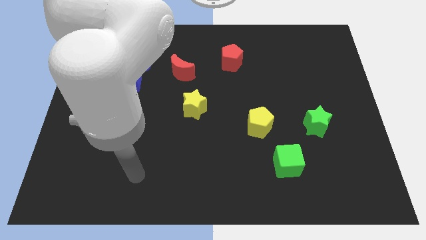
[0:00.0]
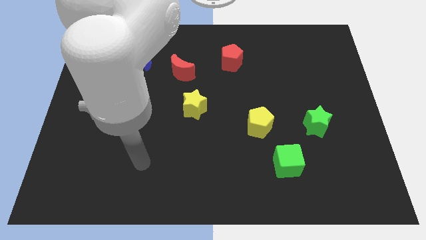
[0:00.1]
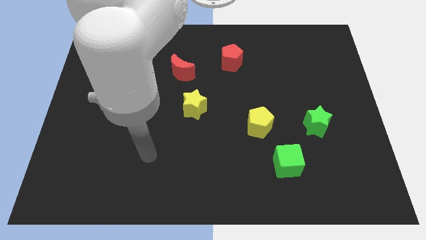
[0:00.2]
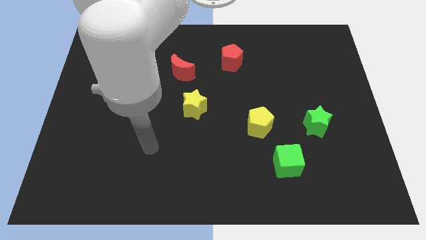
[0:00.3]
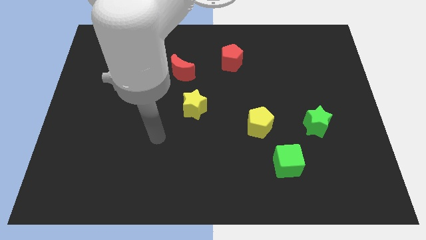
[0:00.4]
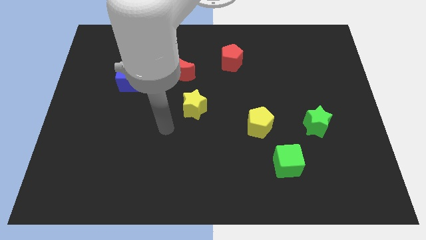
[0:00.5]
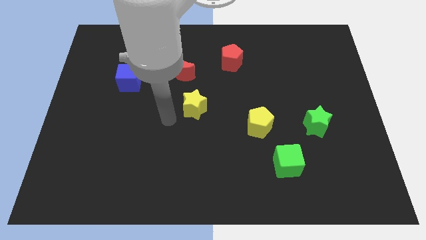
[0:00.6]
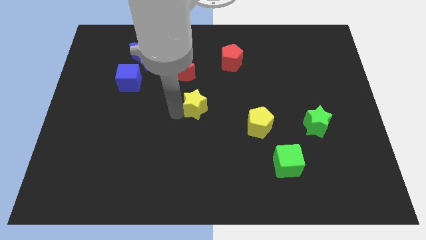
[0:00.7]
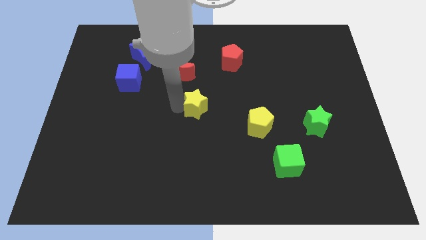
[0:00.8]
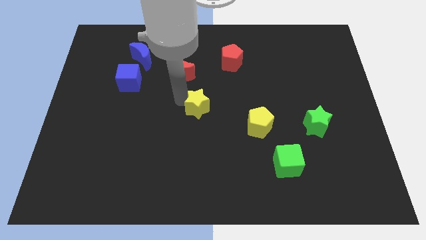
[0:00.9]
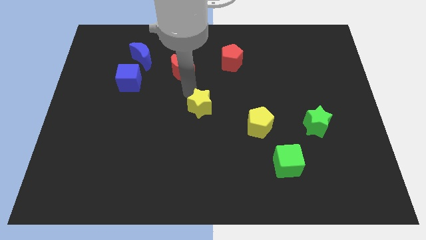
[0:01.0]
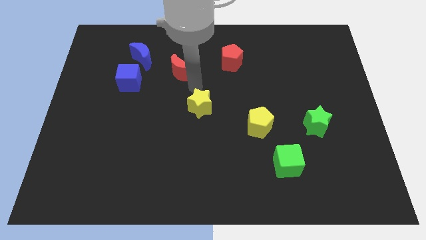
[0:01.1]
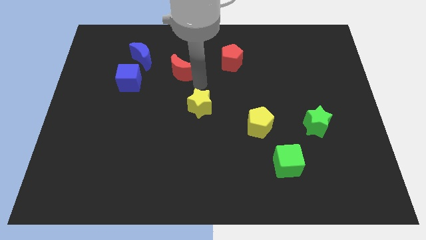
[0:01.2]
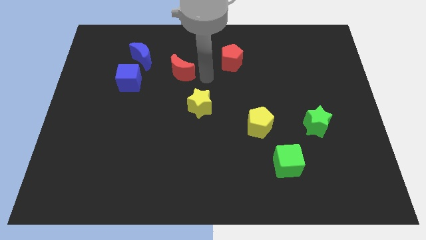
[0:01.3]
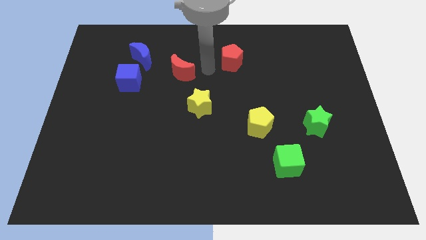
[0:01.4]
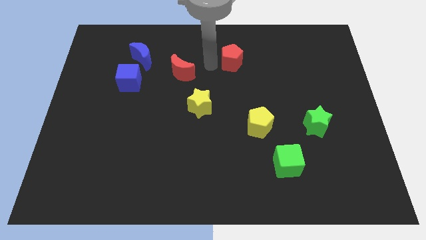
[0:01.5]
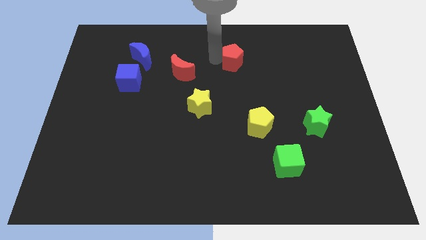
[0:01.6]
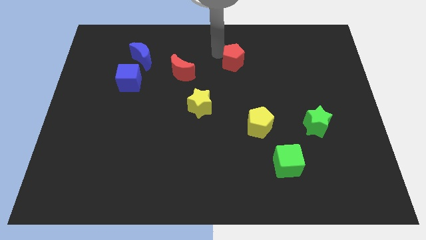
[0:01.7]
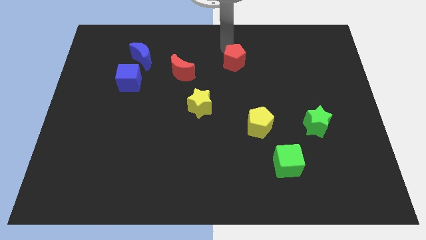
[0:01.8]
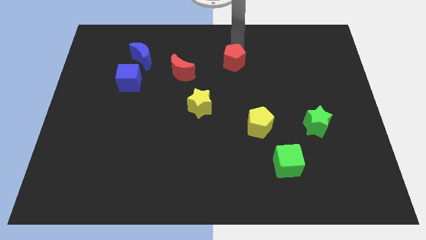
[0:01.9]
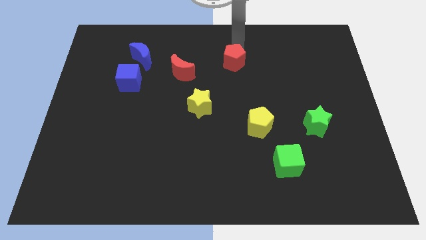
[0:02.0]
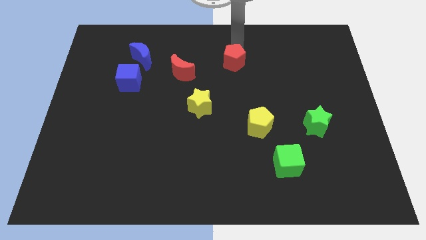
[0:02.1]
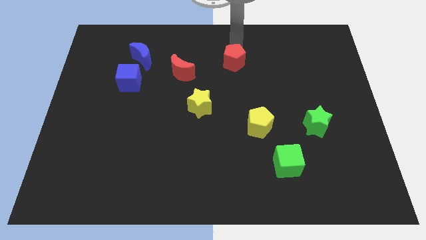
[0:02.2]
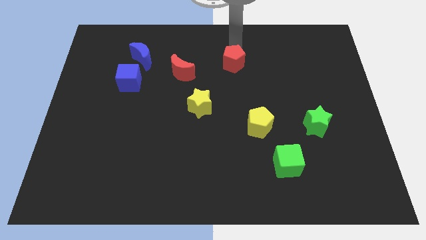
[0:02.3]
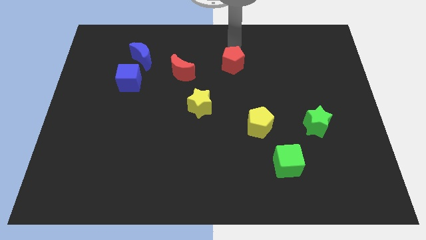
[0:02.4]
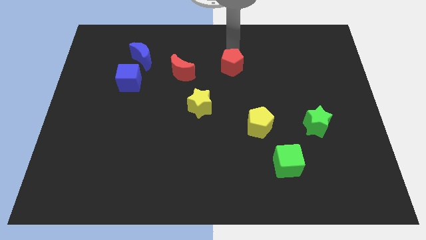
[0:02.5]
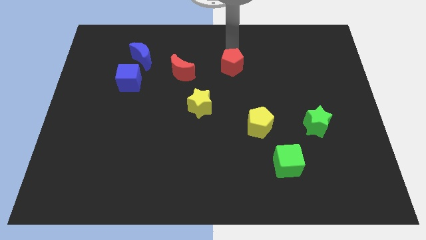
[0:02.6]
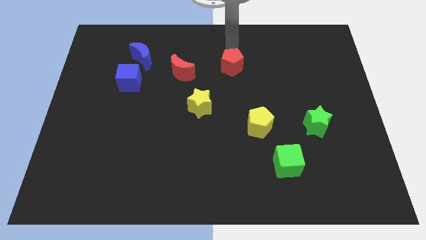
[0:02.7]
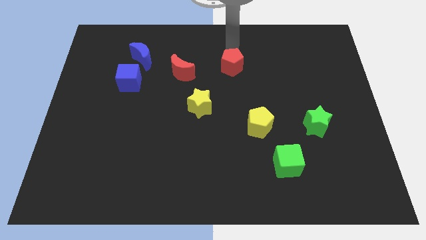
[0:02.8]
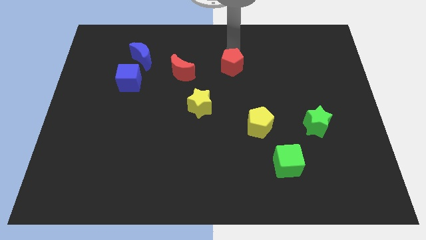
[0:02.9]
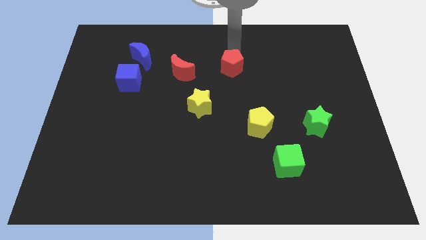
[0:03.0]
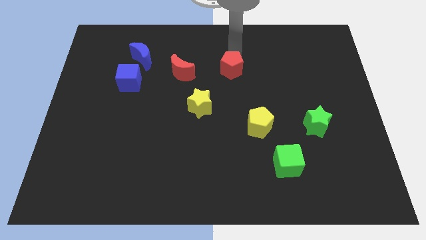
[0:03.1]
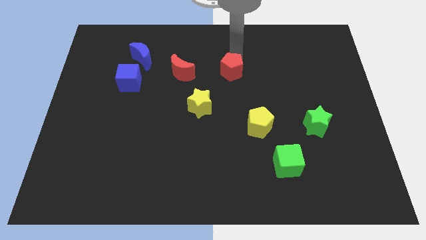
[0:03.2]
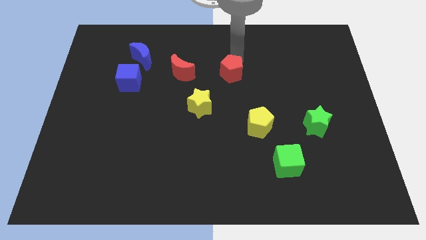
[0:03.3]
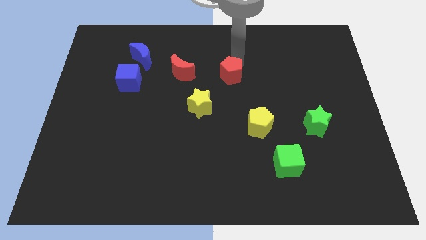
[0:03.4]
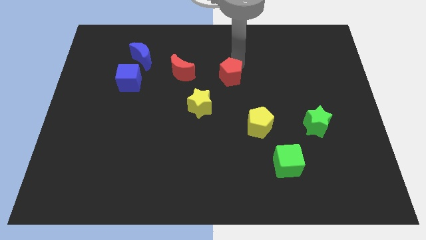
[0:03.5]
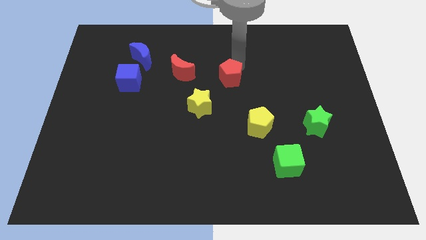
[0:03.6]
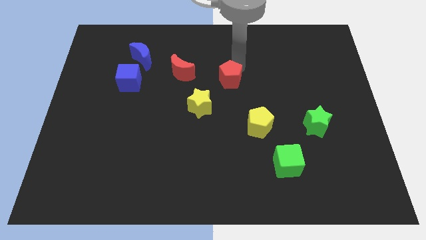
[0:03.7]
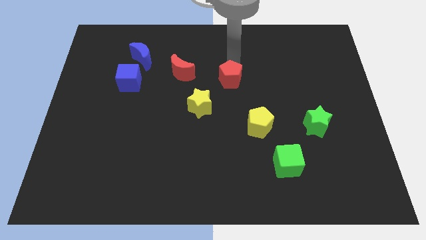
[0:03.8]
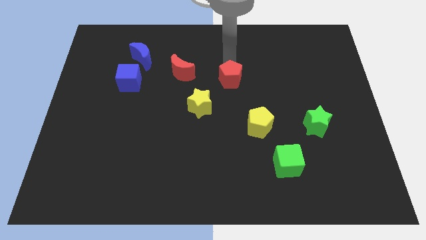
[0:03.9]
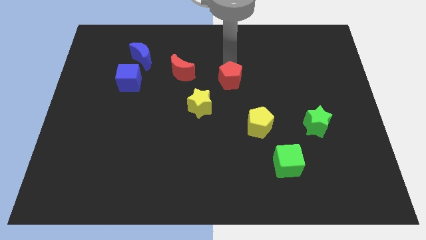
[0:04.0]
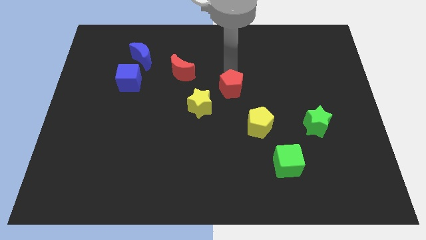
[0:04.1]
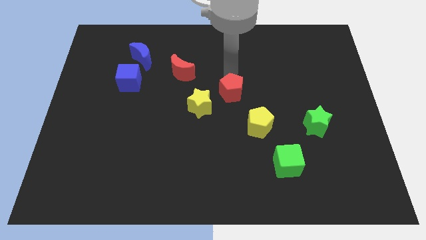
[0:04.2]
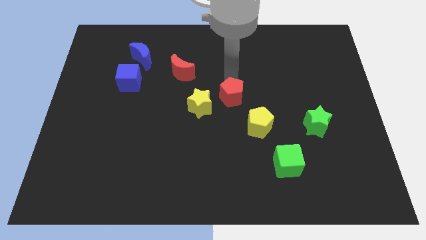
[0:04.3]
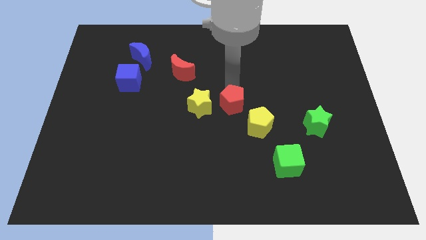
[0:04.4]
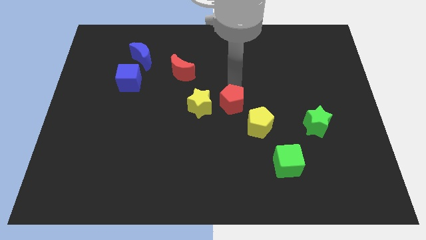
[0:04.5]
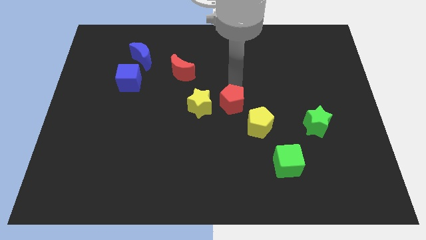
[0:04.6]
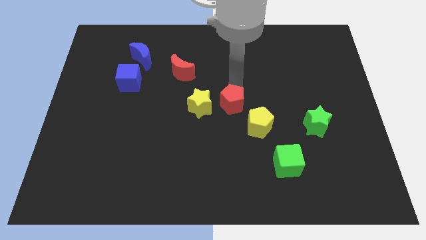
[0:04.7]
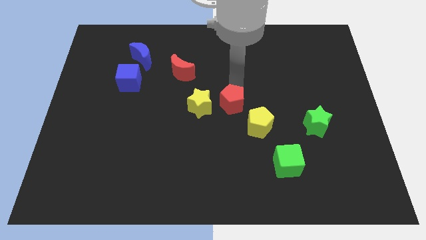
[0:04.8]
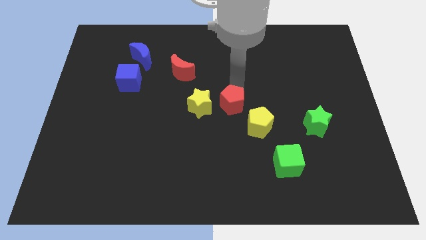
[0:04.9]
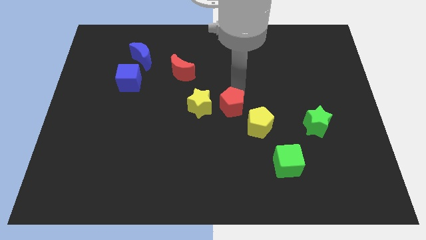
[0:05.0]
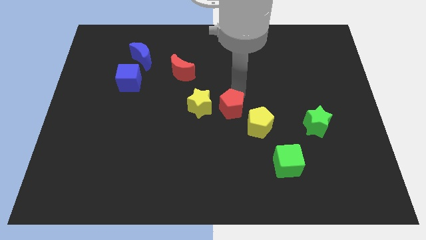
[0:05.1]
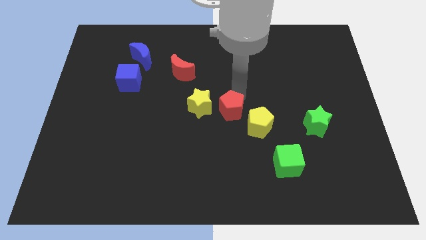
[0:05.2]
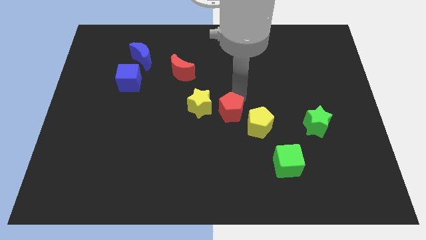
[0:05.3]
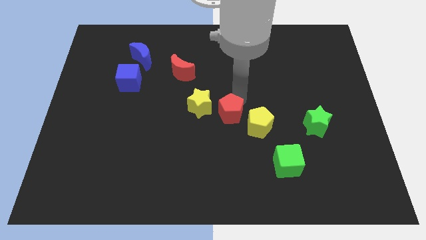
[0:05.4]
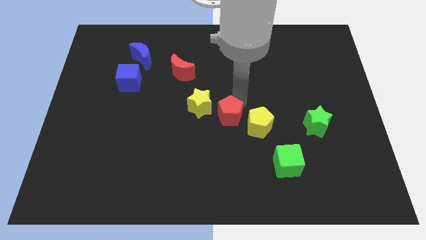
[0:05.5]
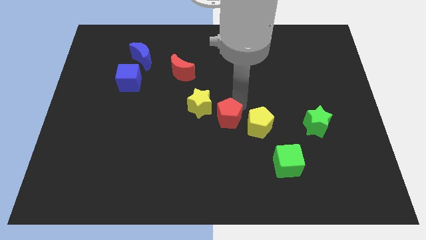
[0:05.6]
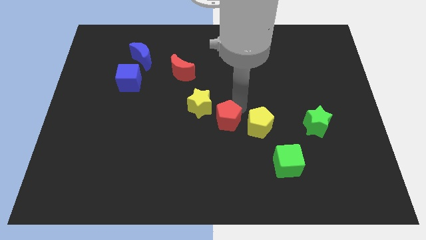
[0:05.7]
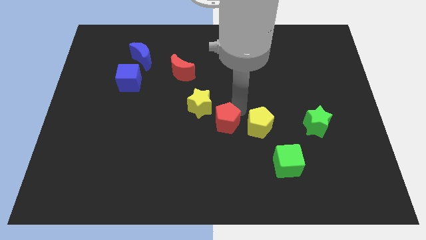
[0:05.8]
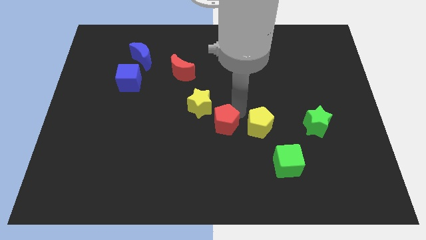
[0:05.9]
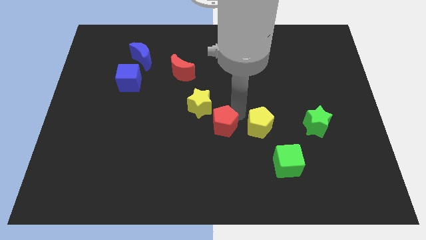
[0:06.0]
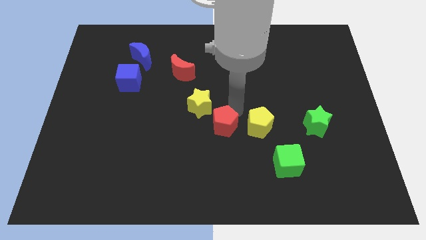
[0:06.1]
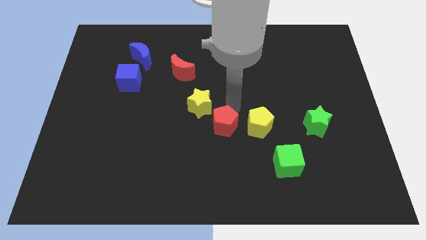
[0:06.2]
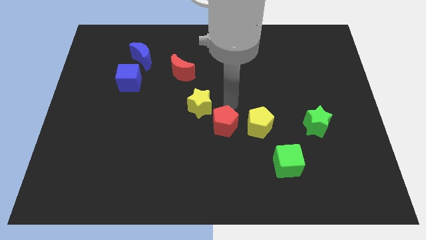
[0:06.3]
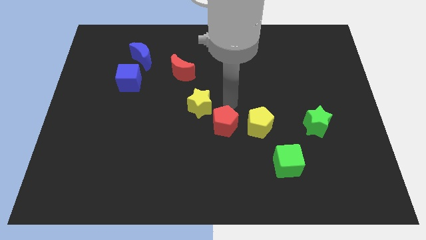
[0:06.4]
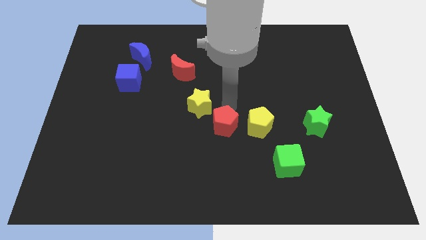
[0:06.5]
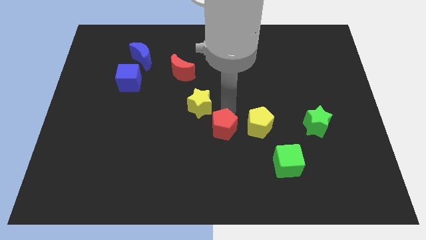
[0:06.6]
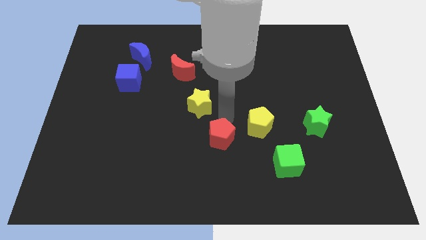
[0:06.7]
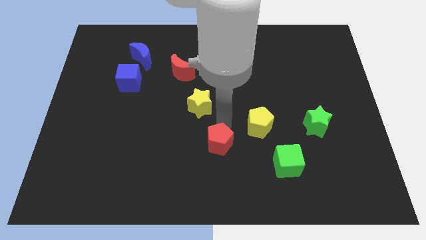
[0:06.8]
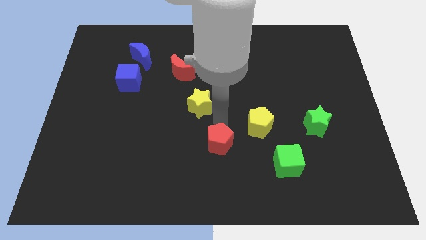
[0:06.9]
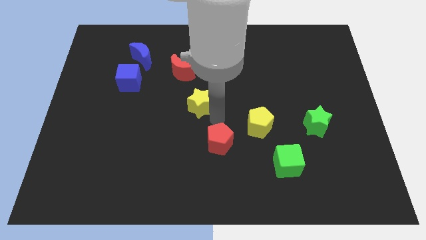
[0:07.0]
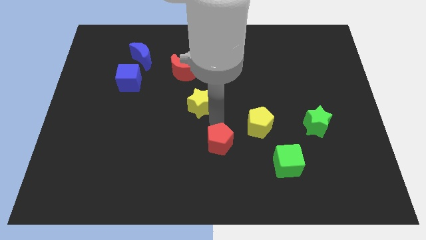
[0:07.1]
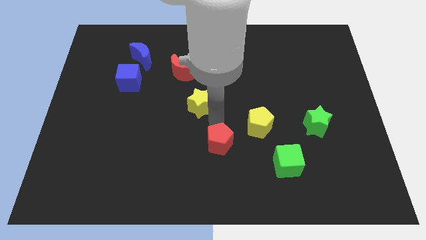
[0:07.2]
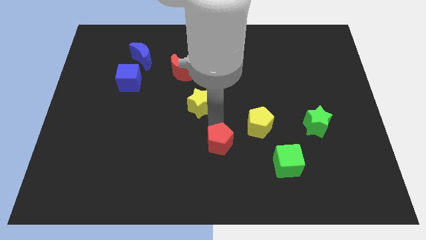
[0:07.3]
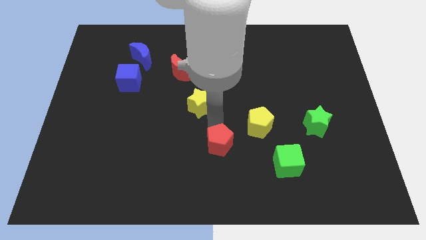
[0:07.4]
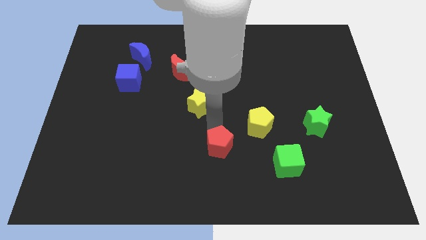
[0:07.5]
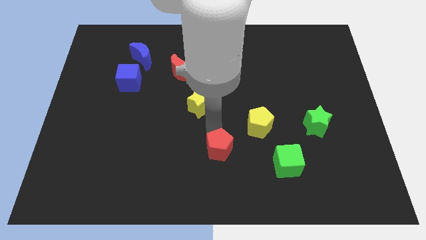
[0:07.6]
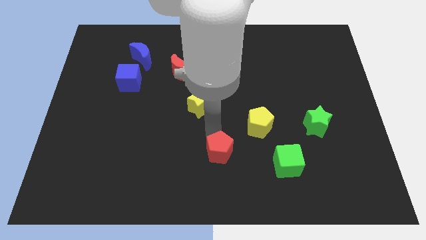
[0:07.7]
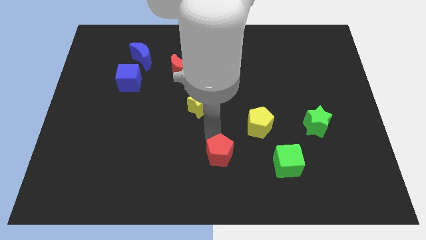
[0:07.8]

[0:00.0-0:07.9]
push the red pentagon to the bottom
